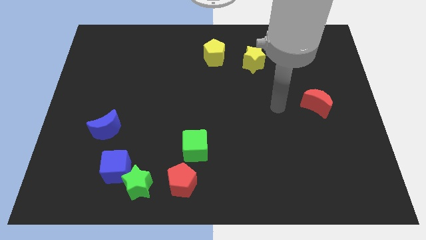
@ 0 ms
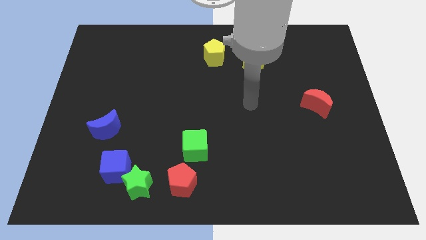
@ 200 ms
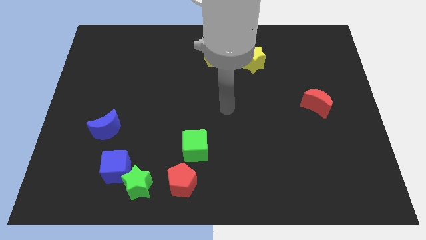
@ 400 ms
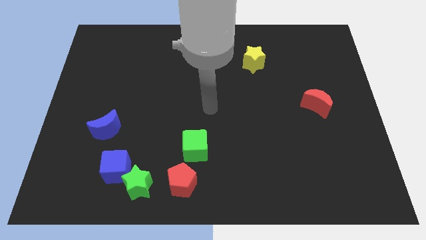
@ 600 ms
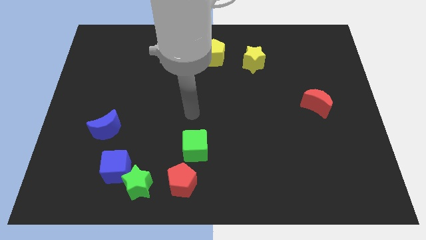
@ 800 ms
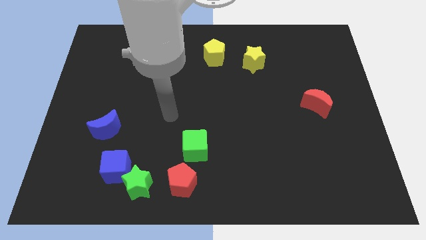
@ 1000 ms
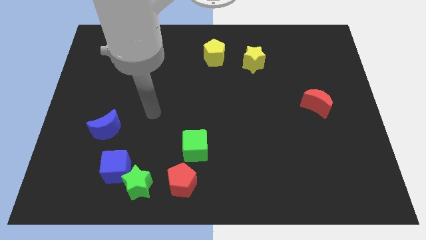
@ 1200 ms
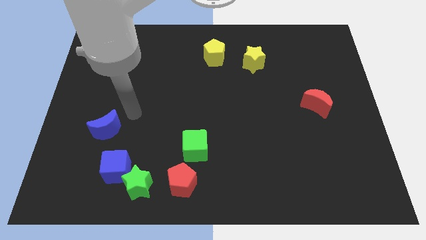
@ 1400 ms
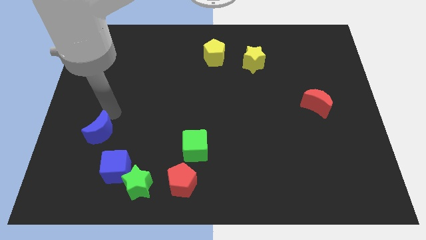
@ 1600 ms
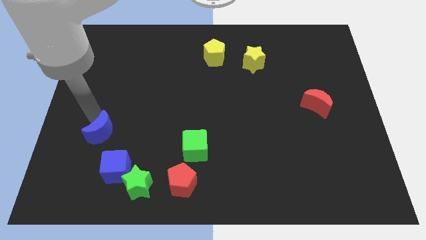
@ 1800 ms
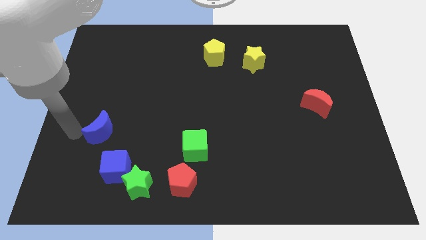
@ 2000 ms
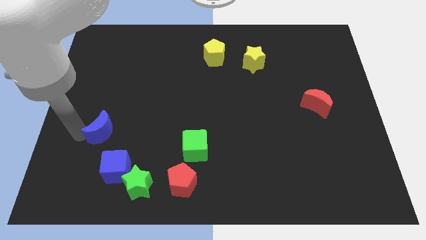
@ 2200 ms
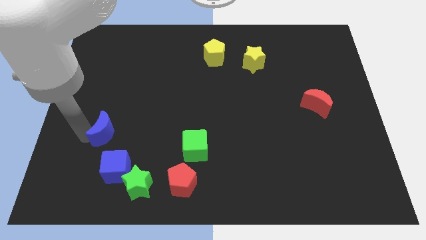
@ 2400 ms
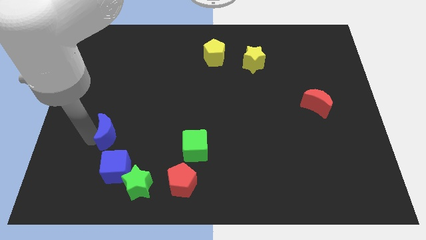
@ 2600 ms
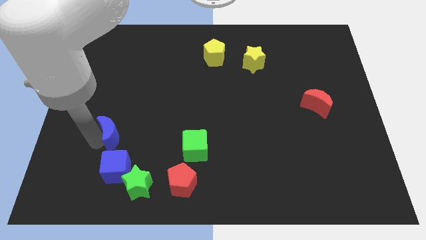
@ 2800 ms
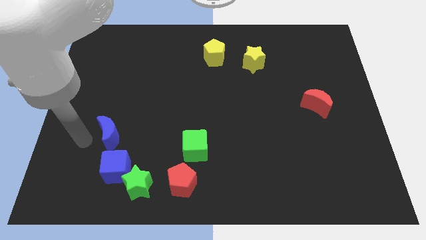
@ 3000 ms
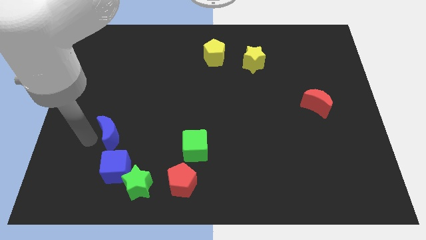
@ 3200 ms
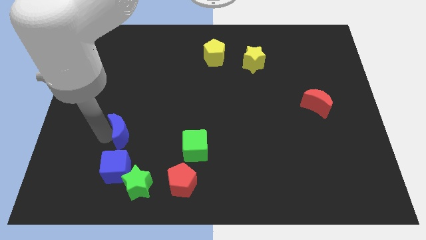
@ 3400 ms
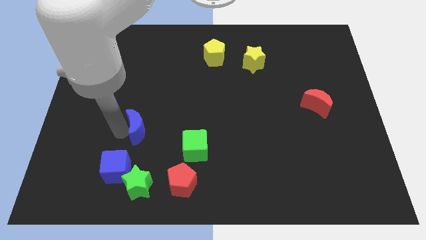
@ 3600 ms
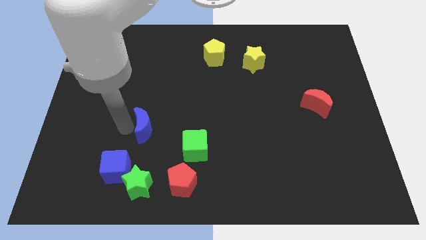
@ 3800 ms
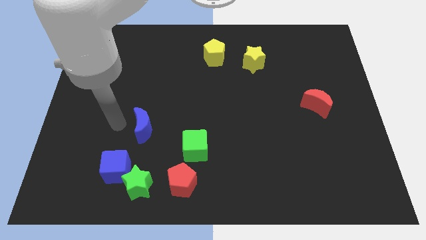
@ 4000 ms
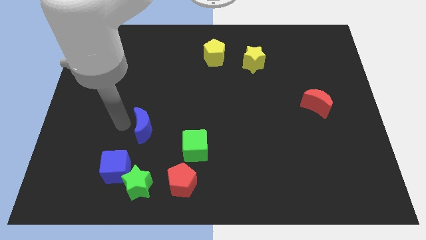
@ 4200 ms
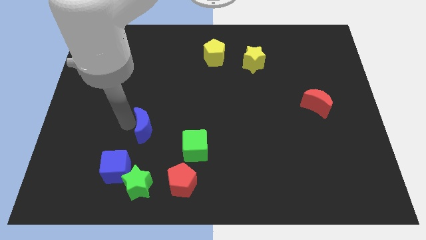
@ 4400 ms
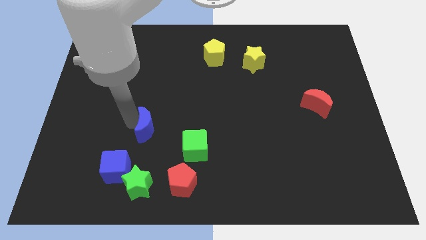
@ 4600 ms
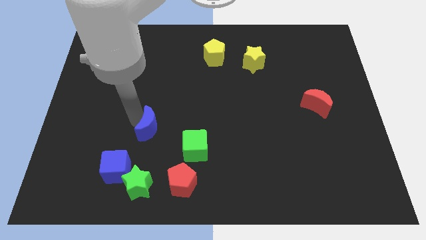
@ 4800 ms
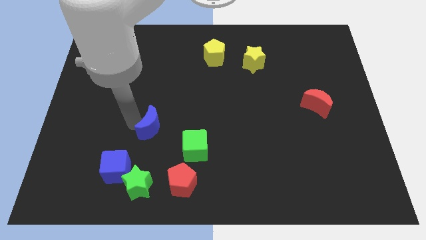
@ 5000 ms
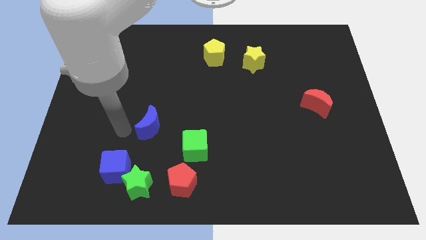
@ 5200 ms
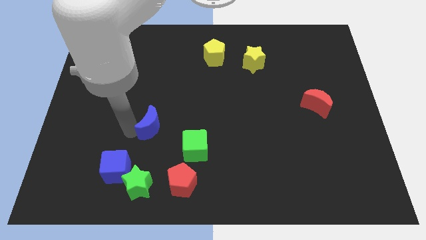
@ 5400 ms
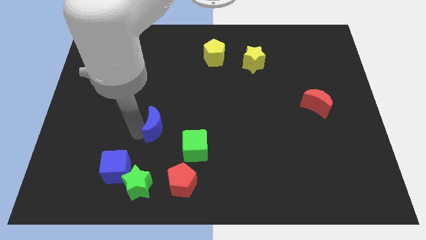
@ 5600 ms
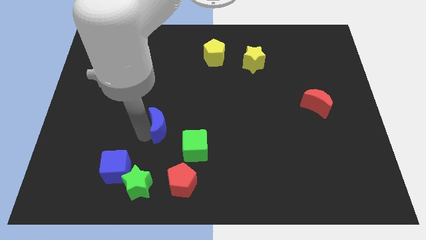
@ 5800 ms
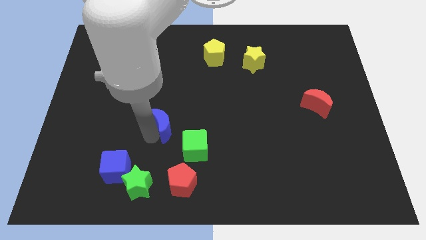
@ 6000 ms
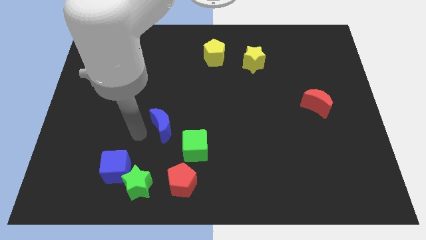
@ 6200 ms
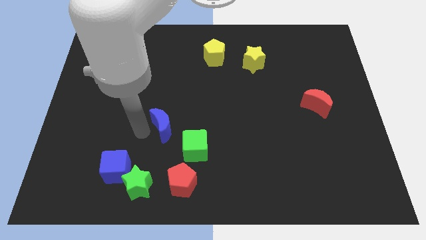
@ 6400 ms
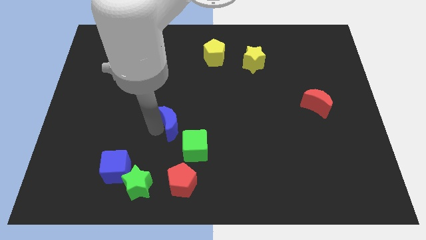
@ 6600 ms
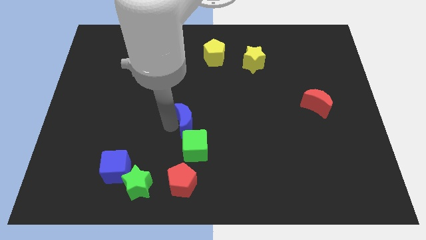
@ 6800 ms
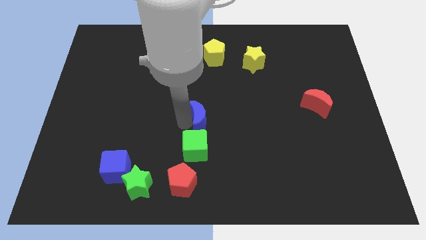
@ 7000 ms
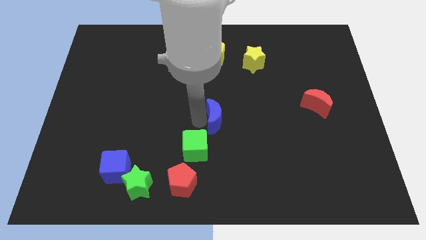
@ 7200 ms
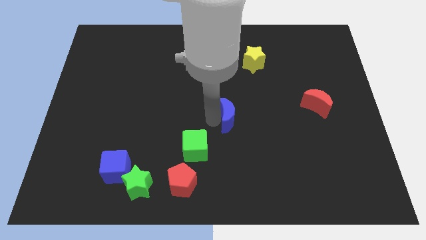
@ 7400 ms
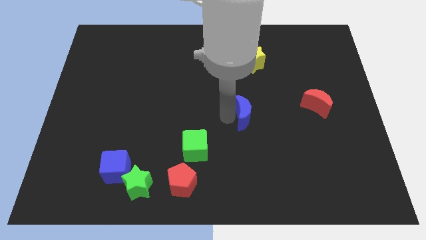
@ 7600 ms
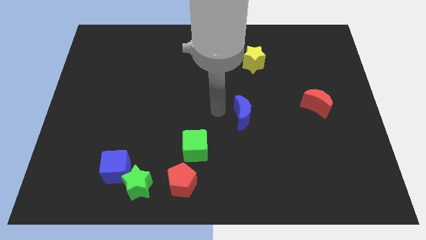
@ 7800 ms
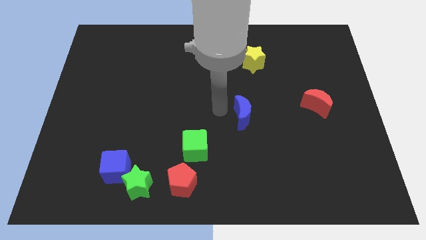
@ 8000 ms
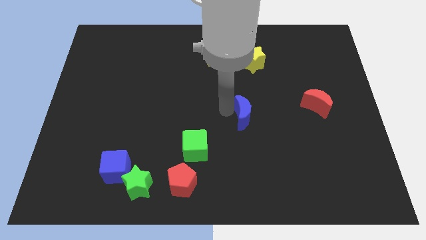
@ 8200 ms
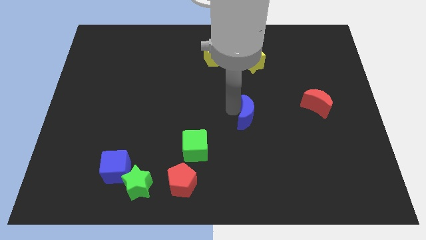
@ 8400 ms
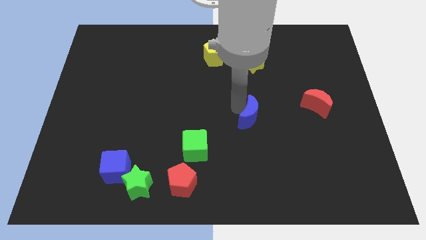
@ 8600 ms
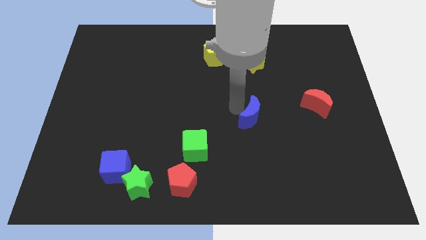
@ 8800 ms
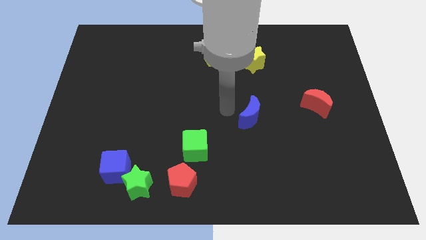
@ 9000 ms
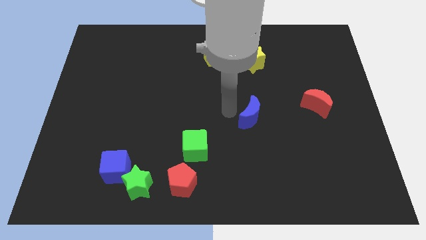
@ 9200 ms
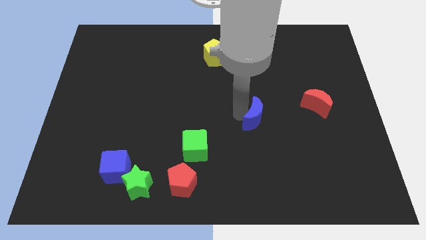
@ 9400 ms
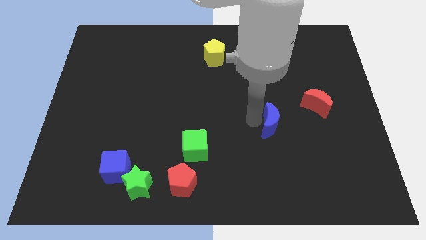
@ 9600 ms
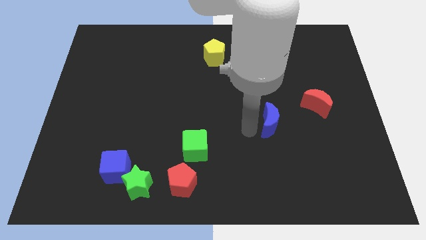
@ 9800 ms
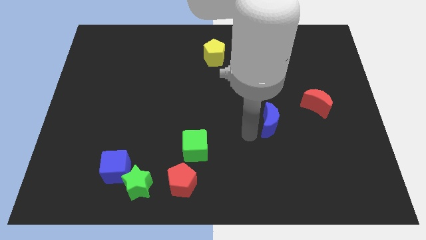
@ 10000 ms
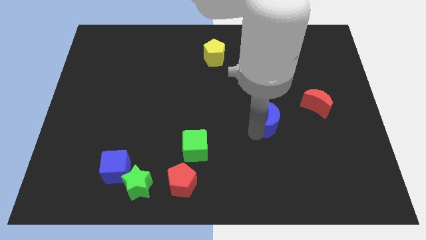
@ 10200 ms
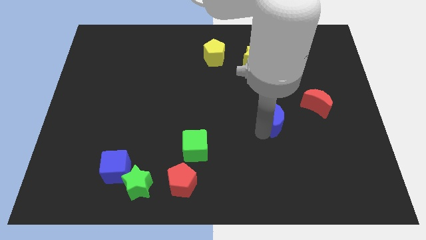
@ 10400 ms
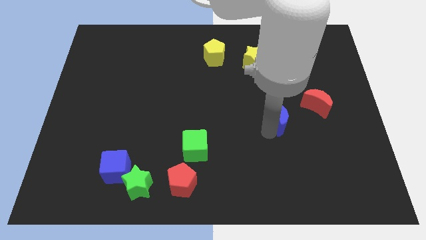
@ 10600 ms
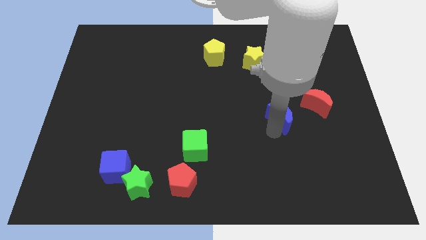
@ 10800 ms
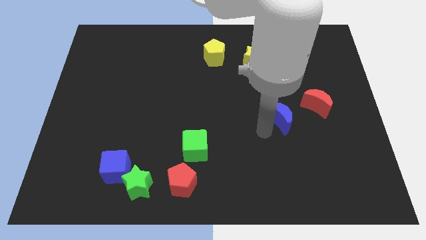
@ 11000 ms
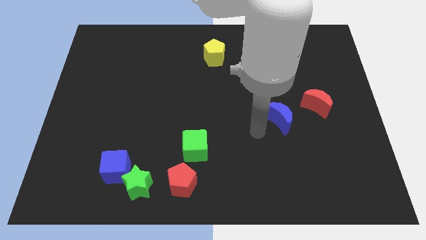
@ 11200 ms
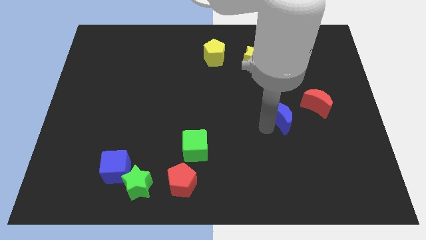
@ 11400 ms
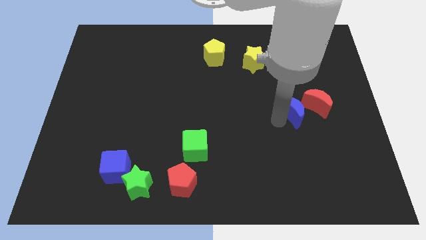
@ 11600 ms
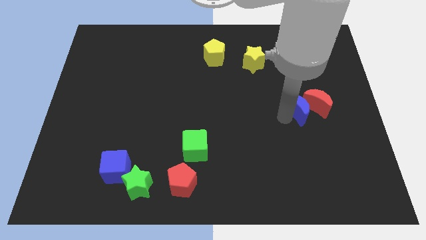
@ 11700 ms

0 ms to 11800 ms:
move the blue moon next to the red moon

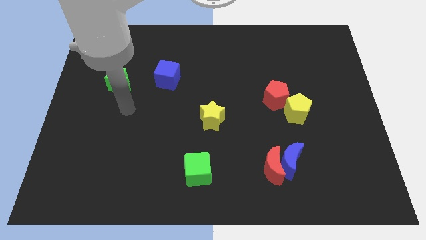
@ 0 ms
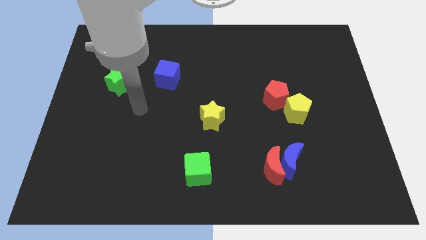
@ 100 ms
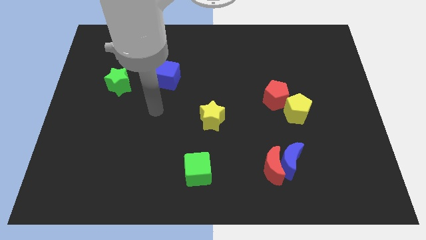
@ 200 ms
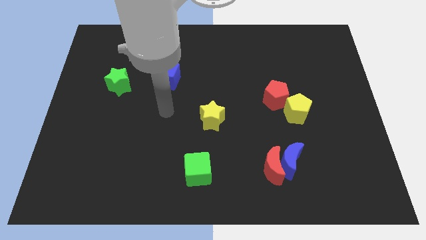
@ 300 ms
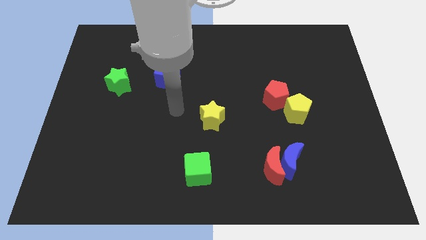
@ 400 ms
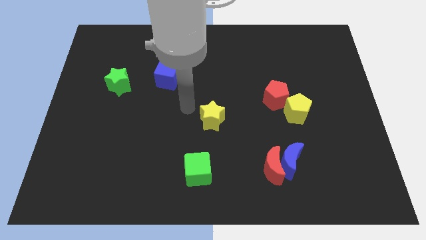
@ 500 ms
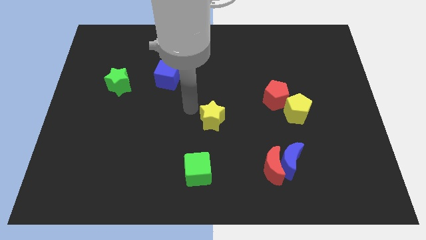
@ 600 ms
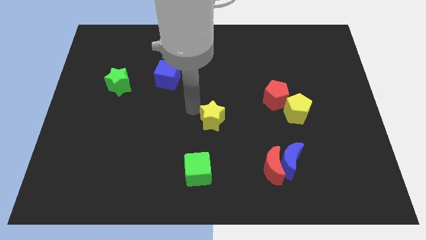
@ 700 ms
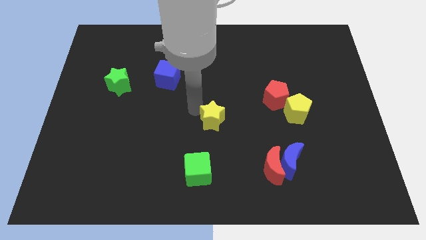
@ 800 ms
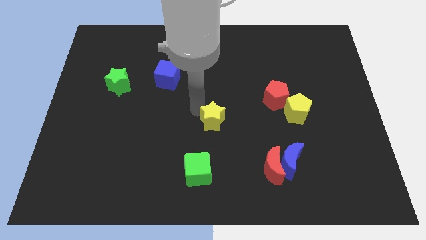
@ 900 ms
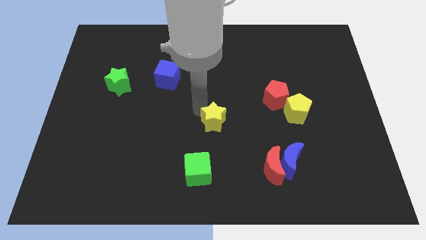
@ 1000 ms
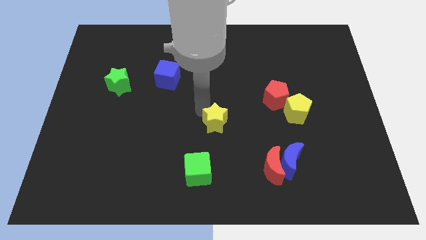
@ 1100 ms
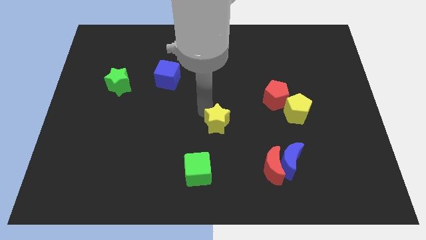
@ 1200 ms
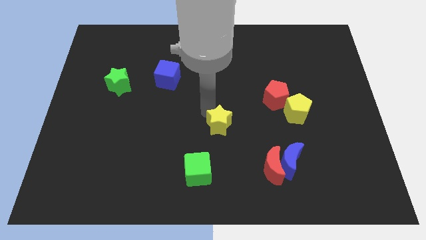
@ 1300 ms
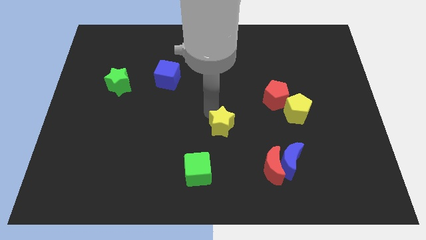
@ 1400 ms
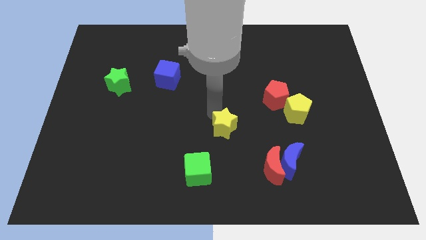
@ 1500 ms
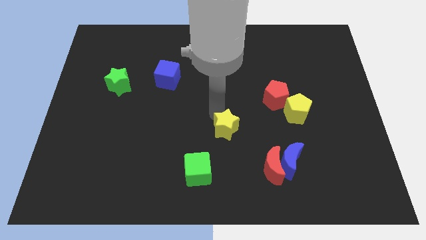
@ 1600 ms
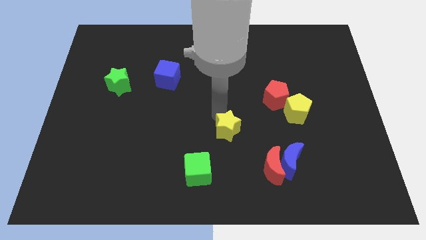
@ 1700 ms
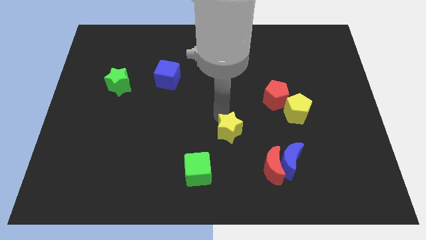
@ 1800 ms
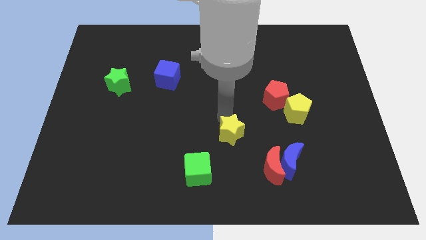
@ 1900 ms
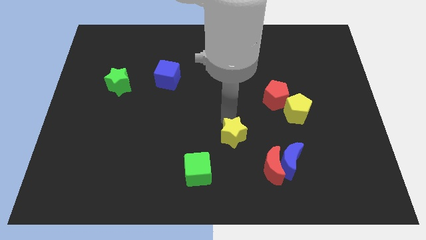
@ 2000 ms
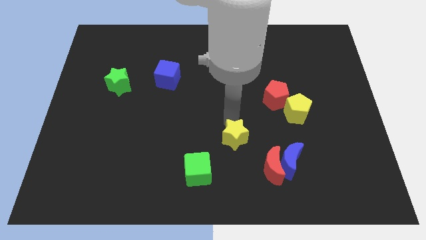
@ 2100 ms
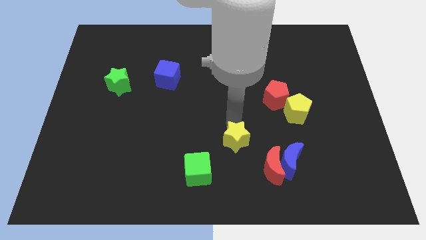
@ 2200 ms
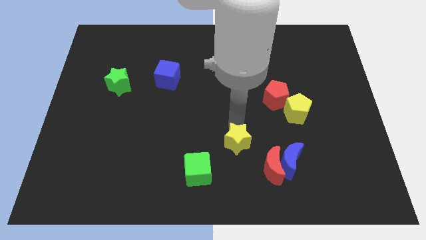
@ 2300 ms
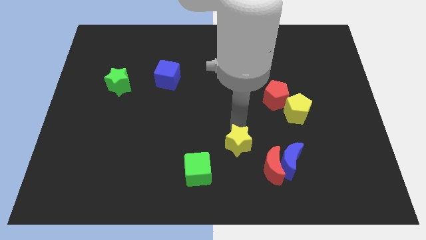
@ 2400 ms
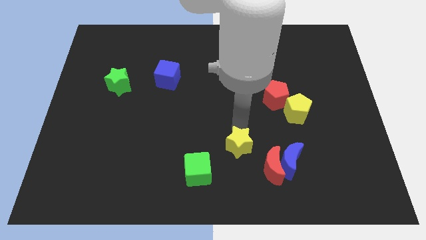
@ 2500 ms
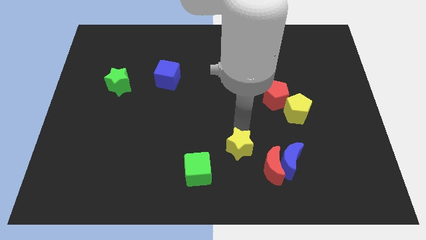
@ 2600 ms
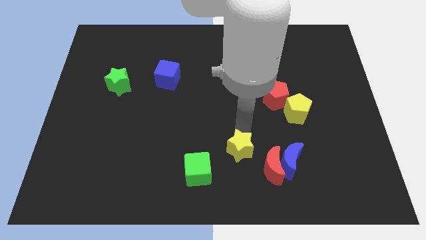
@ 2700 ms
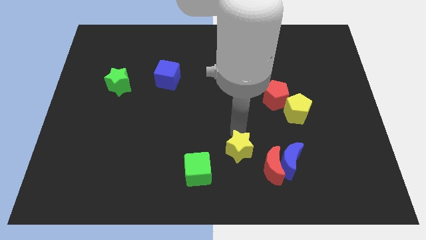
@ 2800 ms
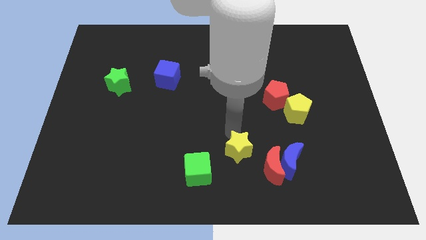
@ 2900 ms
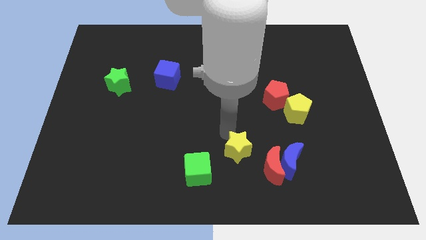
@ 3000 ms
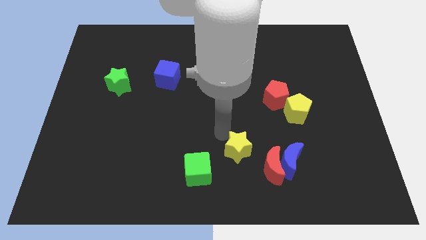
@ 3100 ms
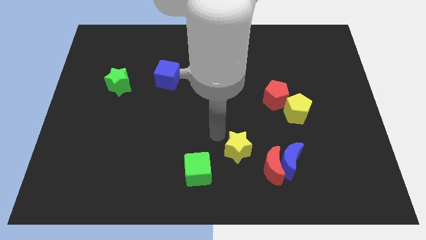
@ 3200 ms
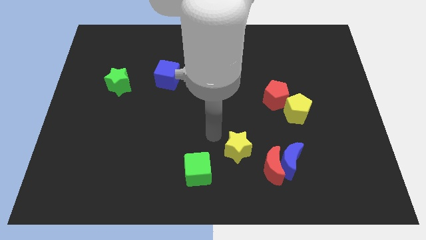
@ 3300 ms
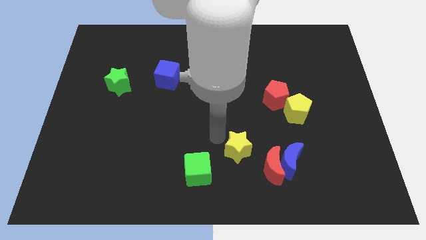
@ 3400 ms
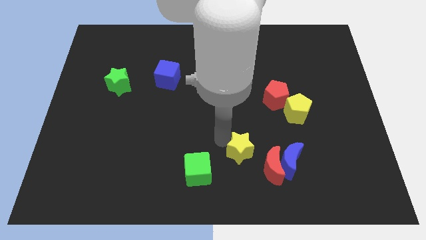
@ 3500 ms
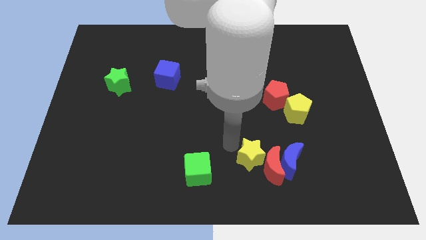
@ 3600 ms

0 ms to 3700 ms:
move the yellow star next to the red moon
